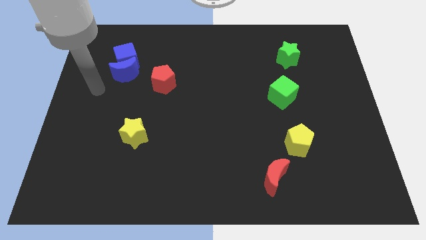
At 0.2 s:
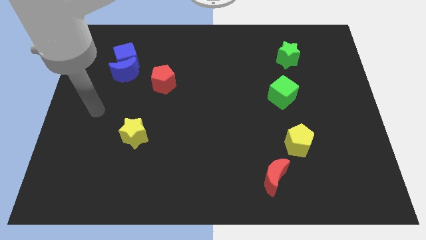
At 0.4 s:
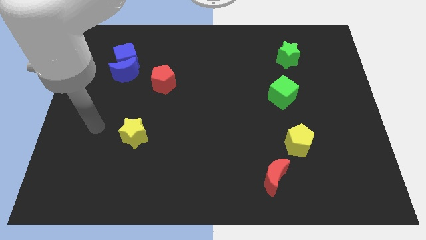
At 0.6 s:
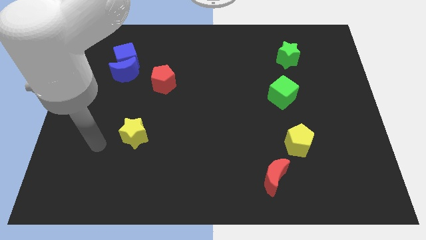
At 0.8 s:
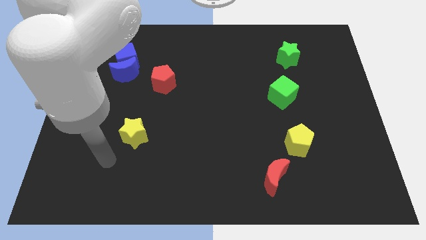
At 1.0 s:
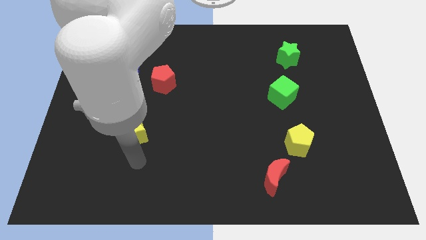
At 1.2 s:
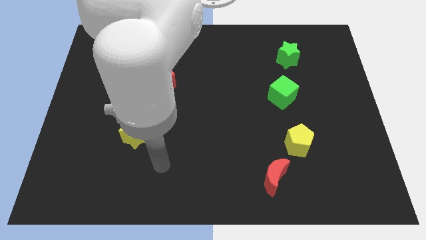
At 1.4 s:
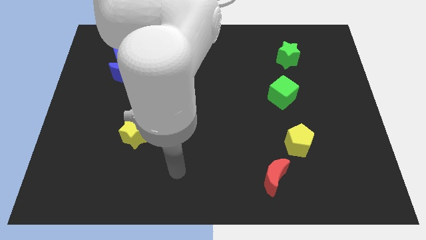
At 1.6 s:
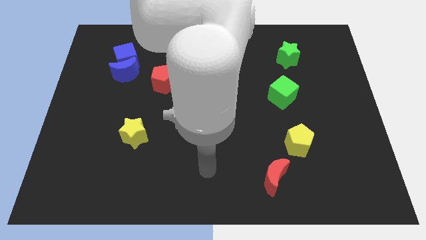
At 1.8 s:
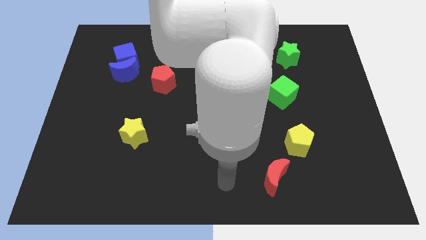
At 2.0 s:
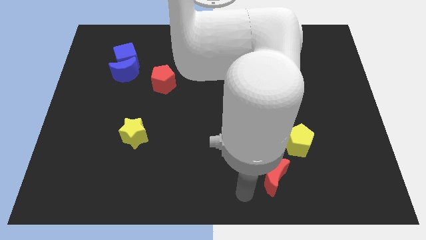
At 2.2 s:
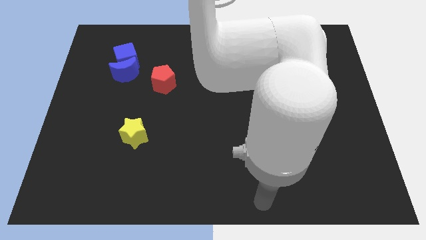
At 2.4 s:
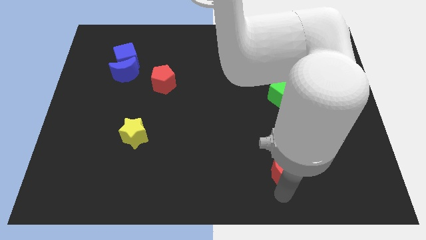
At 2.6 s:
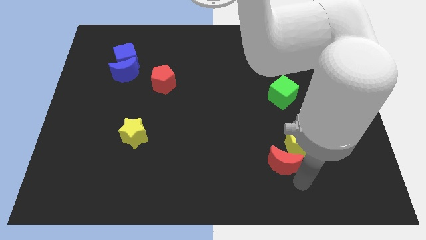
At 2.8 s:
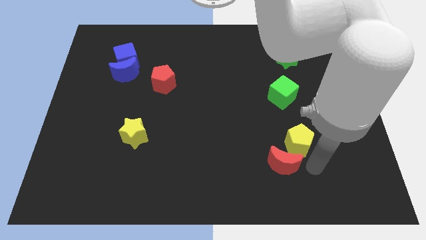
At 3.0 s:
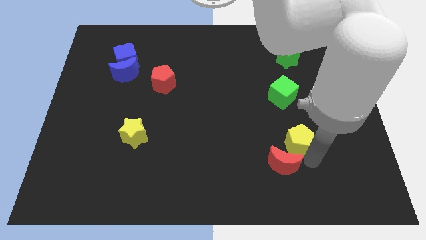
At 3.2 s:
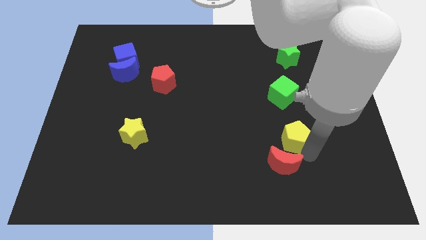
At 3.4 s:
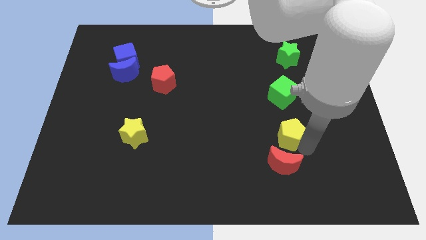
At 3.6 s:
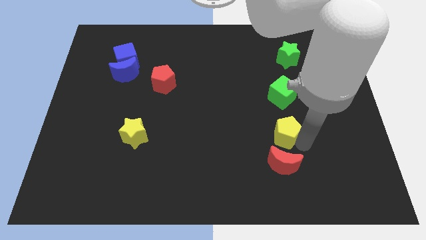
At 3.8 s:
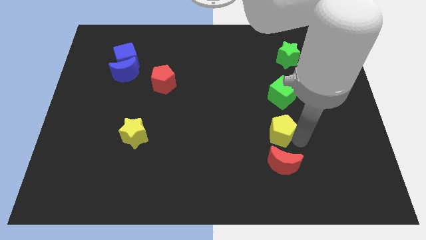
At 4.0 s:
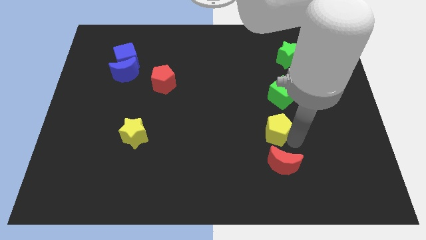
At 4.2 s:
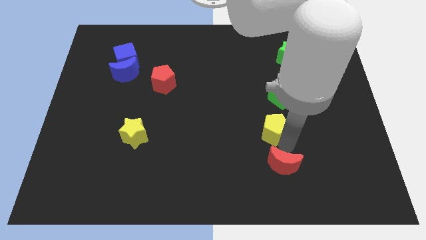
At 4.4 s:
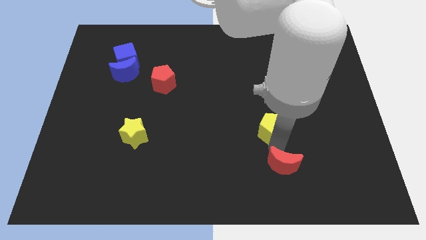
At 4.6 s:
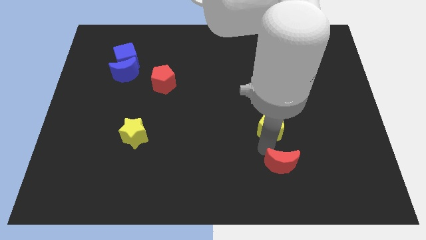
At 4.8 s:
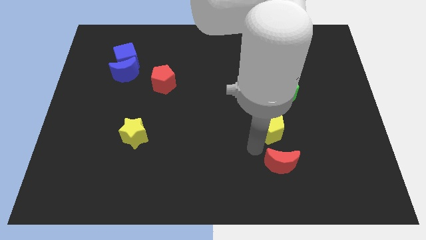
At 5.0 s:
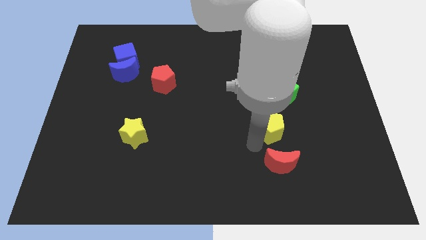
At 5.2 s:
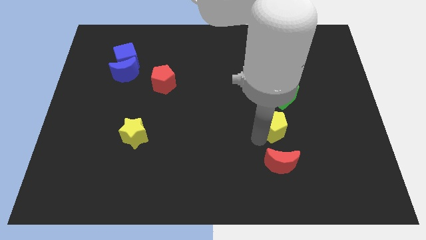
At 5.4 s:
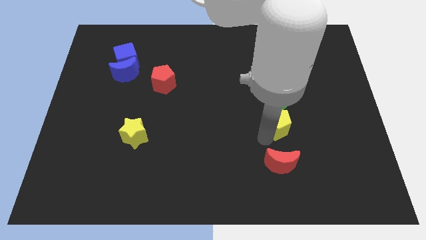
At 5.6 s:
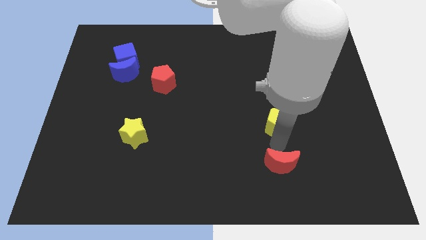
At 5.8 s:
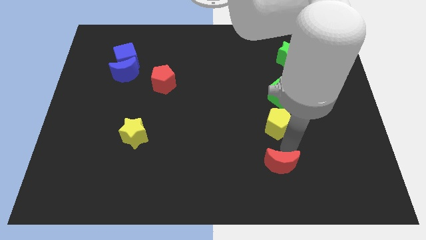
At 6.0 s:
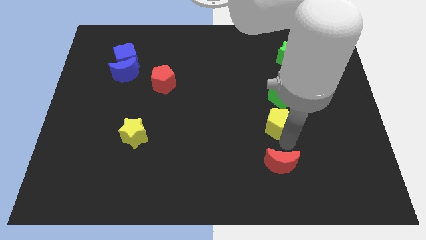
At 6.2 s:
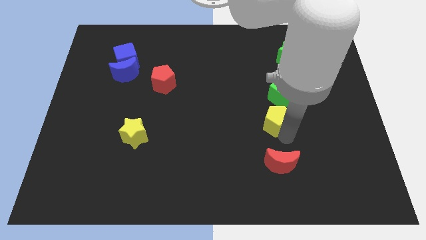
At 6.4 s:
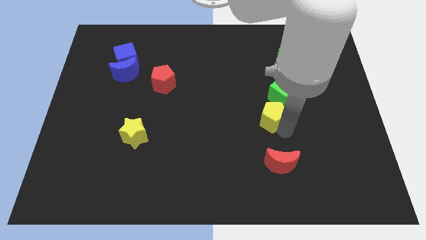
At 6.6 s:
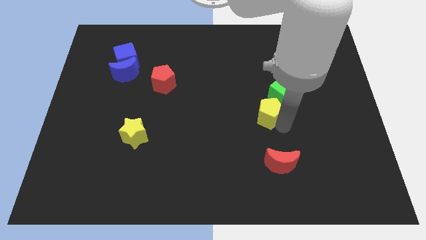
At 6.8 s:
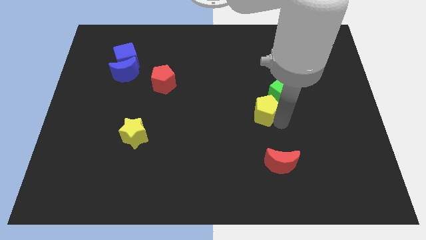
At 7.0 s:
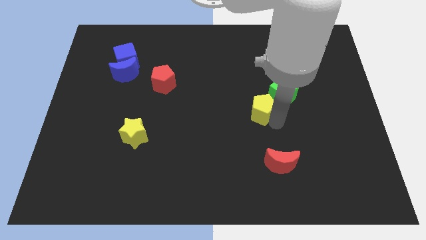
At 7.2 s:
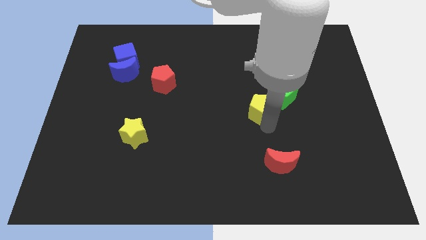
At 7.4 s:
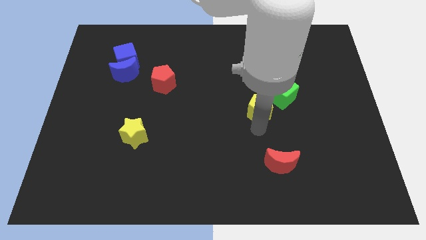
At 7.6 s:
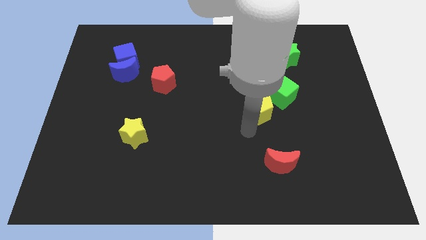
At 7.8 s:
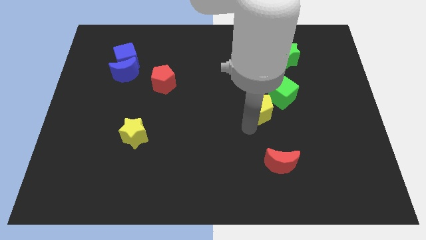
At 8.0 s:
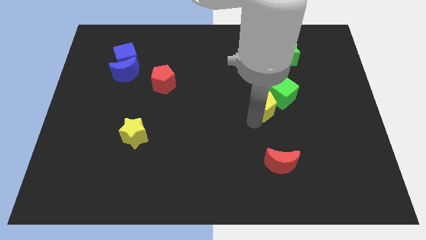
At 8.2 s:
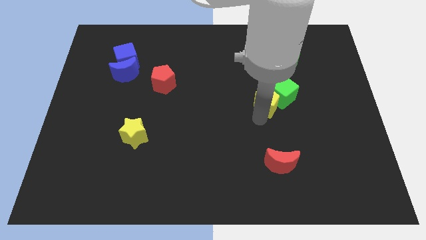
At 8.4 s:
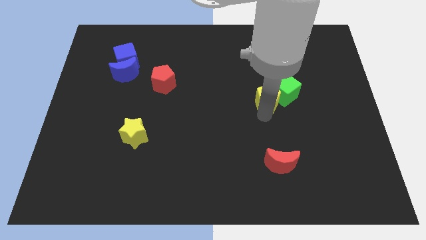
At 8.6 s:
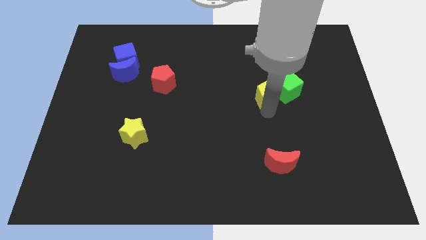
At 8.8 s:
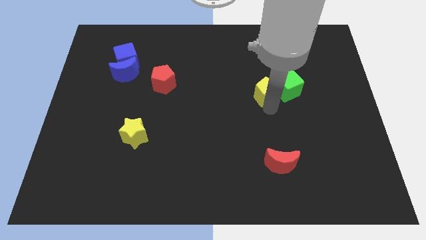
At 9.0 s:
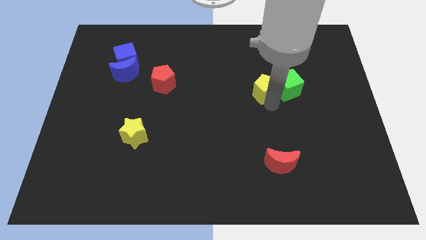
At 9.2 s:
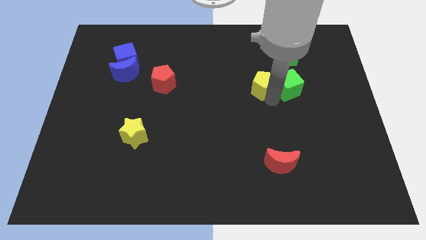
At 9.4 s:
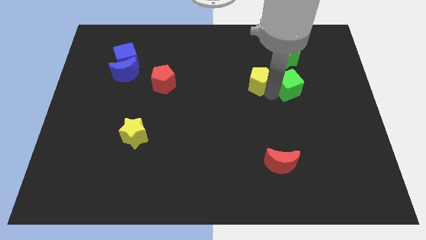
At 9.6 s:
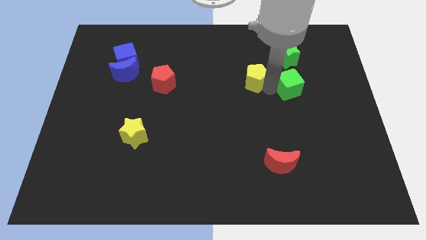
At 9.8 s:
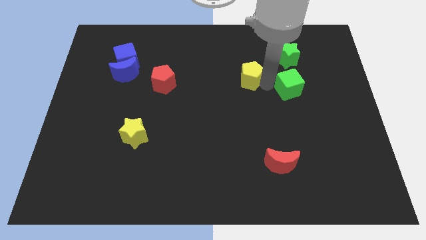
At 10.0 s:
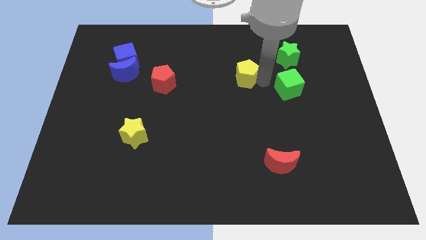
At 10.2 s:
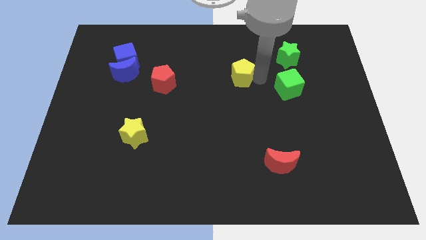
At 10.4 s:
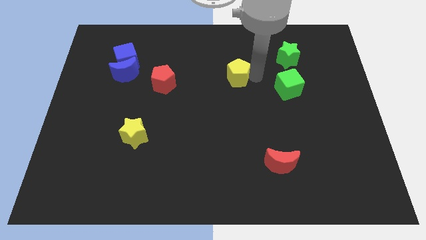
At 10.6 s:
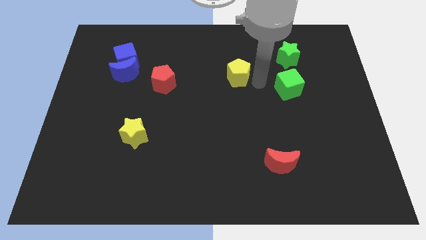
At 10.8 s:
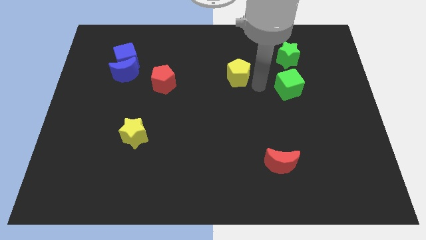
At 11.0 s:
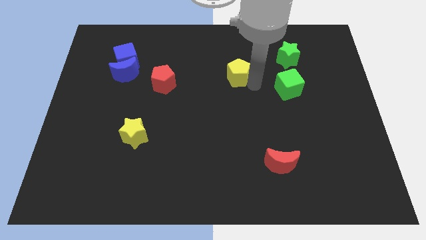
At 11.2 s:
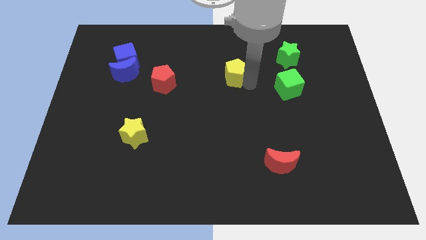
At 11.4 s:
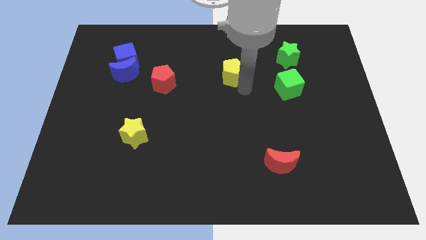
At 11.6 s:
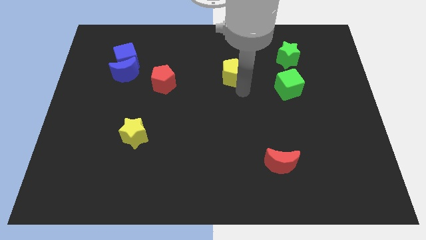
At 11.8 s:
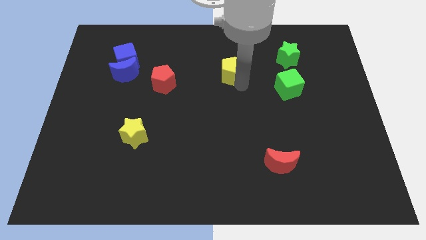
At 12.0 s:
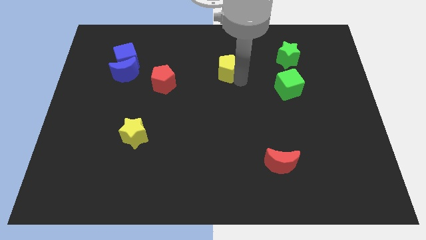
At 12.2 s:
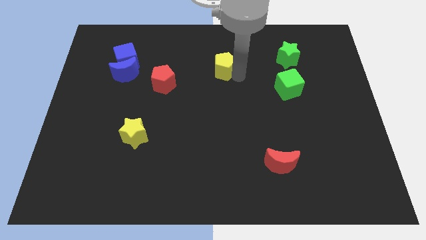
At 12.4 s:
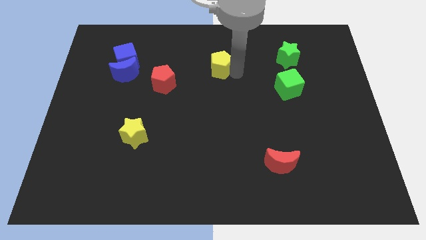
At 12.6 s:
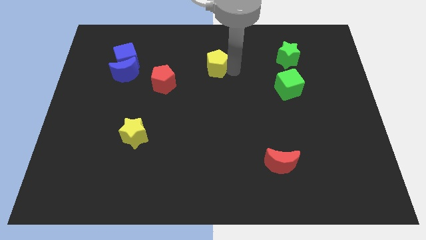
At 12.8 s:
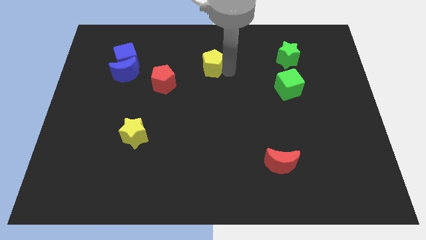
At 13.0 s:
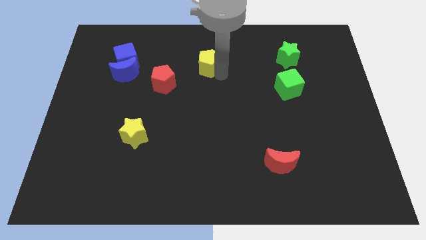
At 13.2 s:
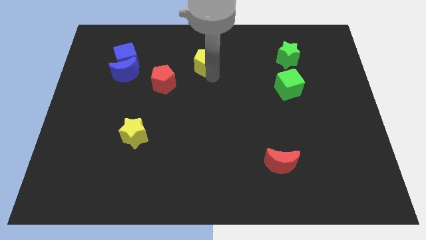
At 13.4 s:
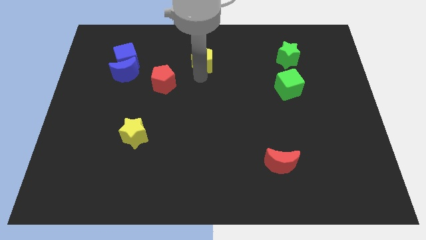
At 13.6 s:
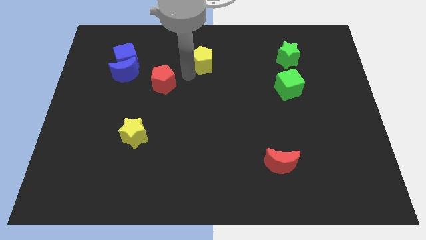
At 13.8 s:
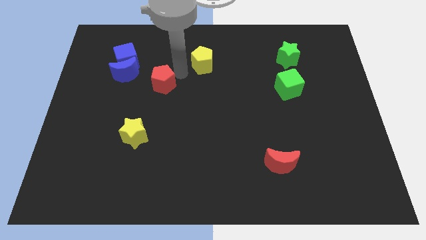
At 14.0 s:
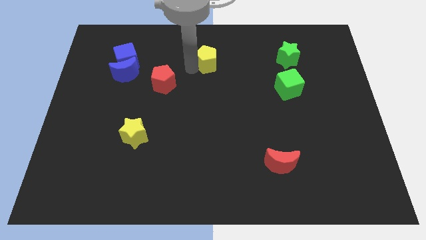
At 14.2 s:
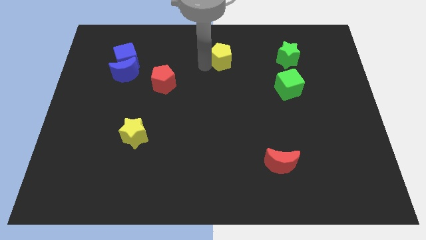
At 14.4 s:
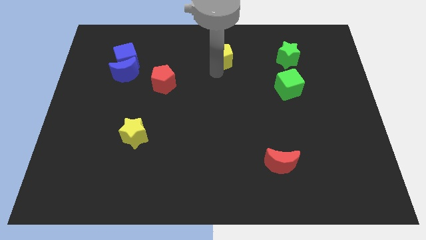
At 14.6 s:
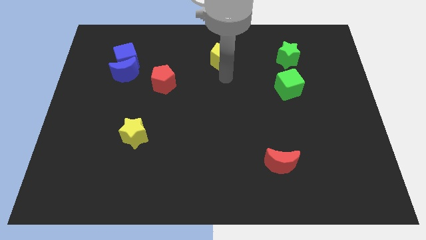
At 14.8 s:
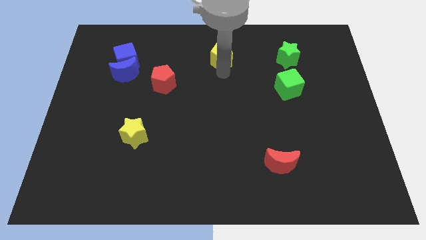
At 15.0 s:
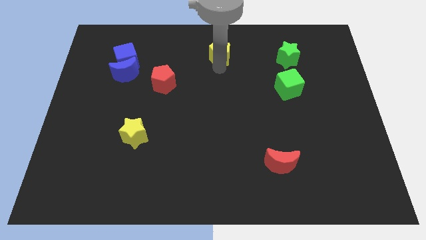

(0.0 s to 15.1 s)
put the yellow pentagon to the towards your base
